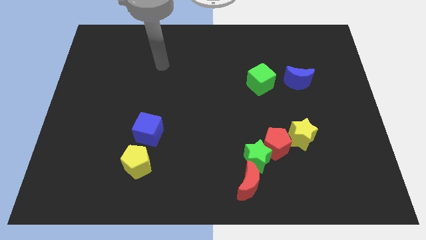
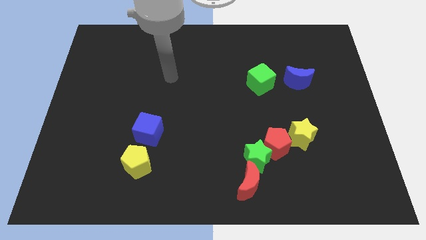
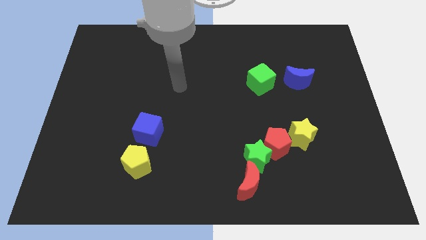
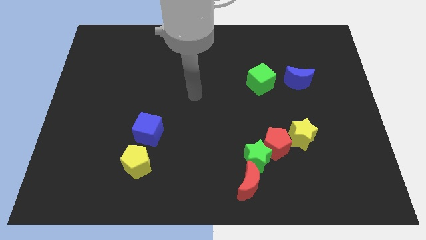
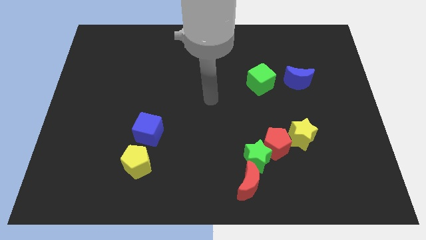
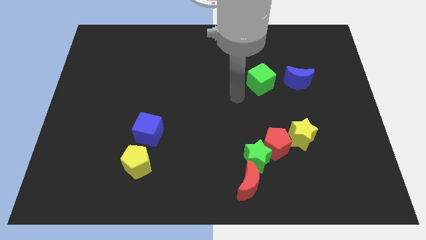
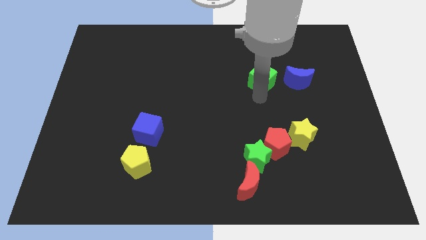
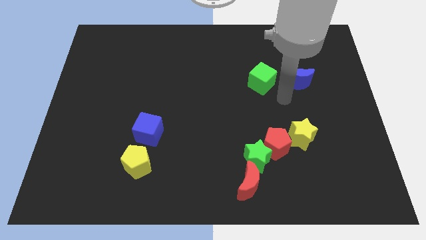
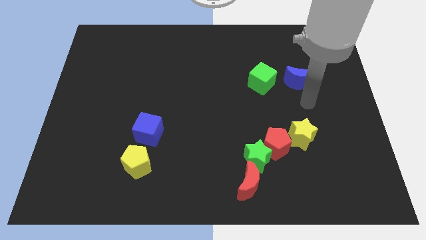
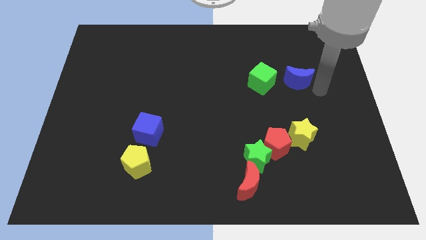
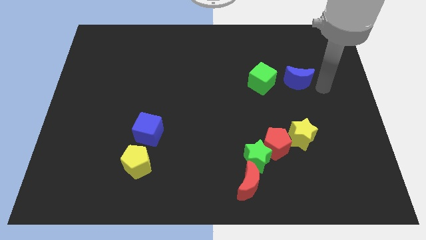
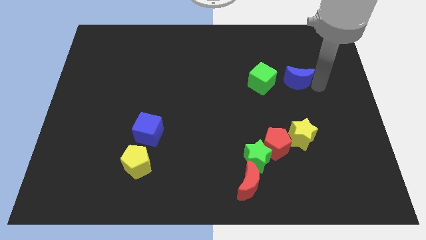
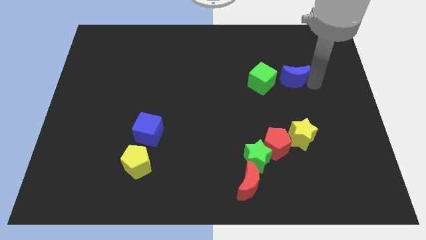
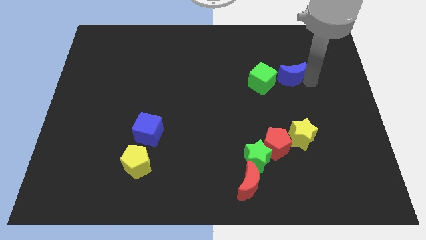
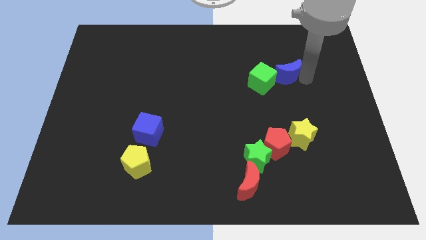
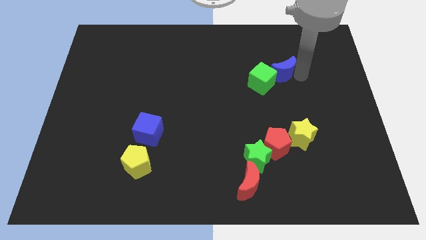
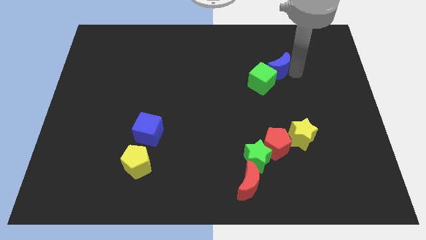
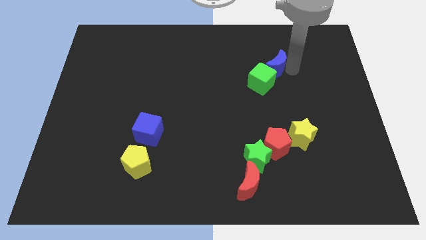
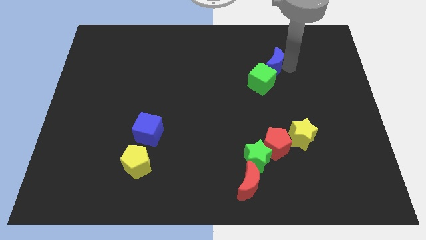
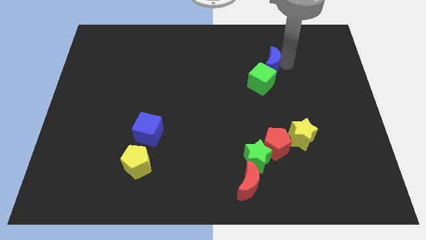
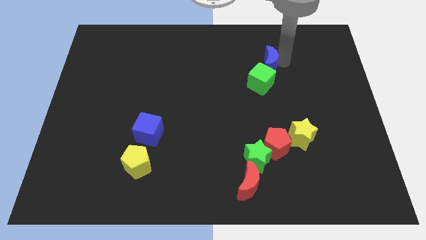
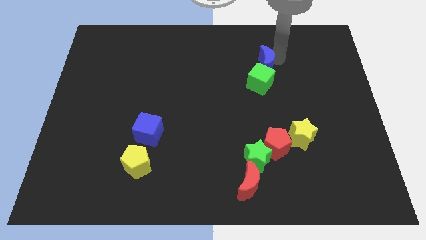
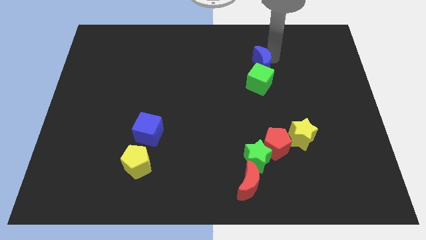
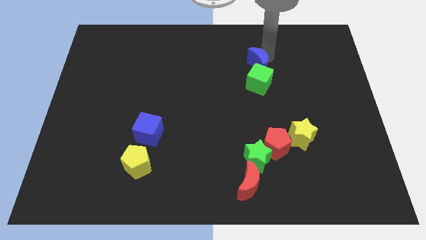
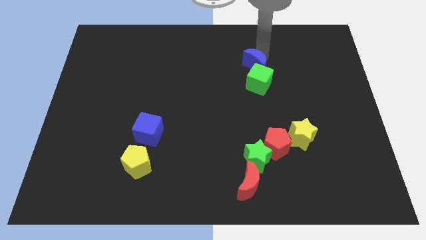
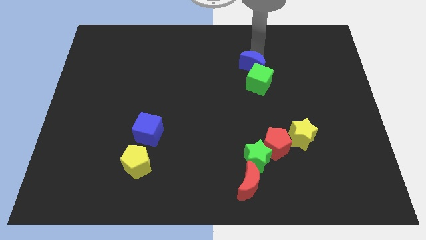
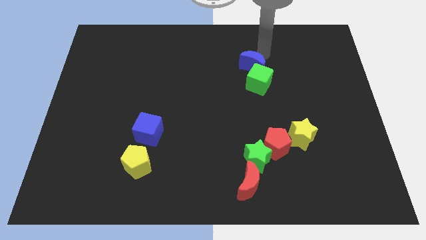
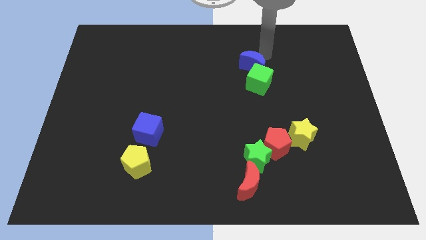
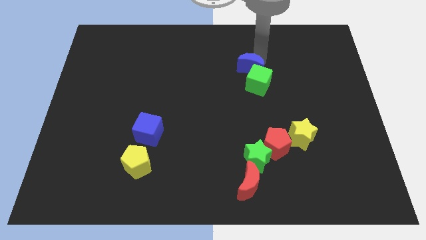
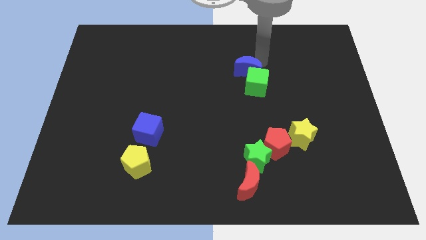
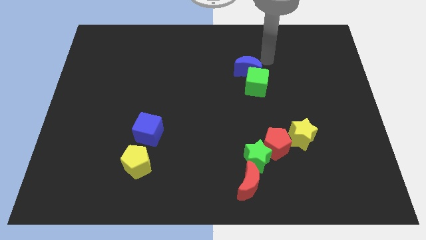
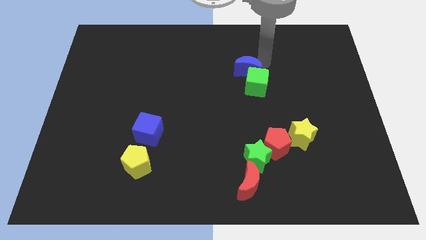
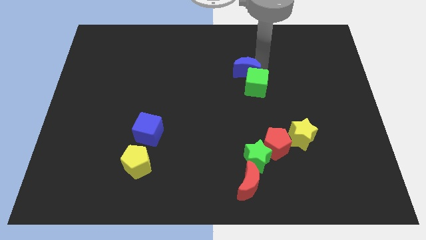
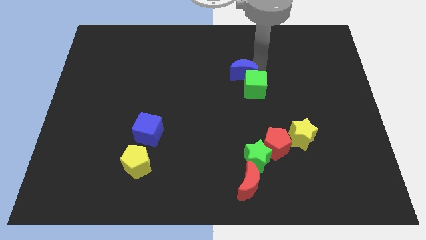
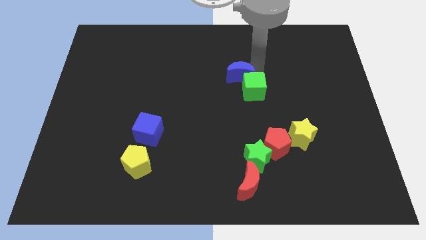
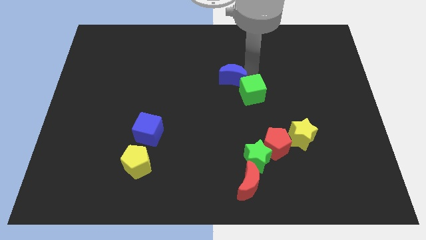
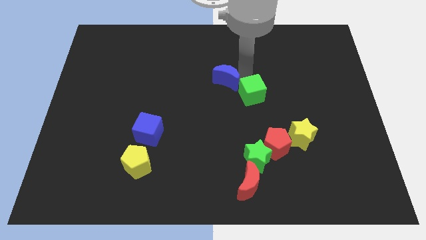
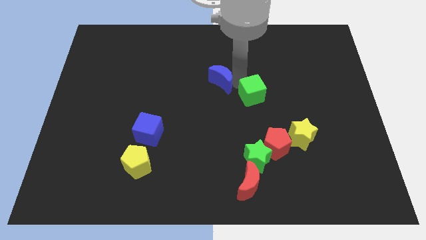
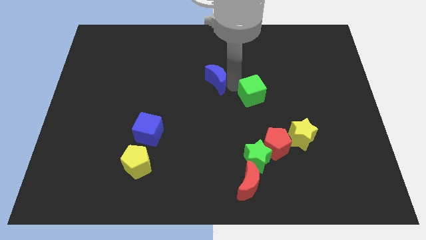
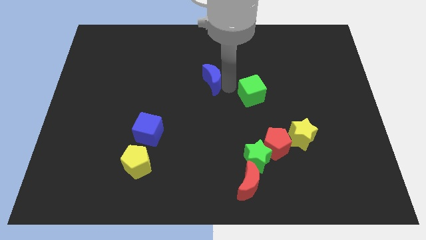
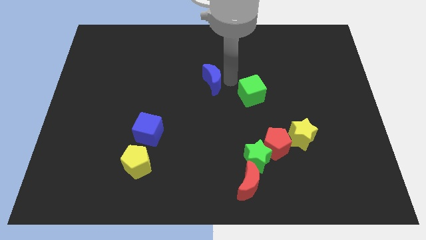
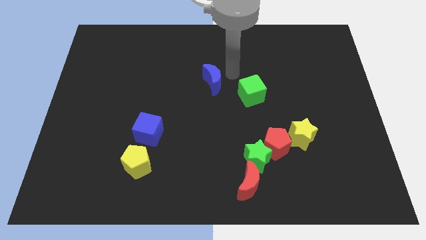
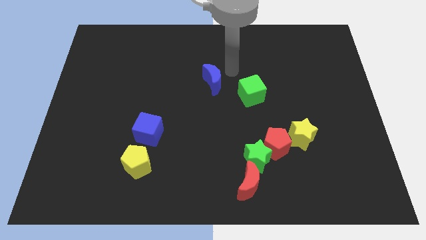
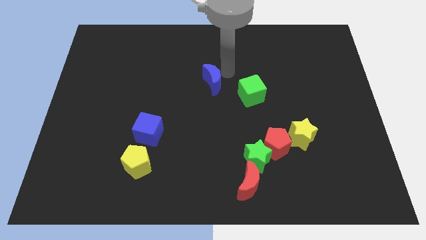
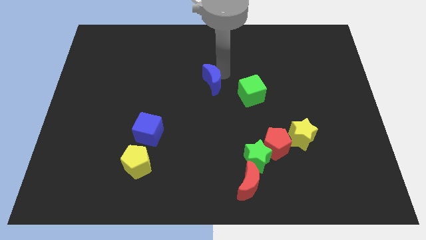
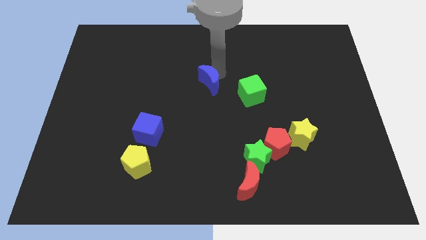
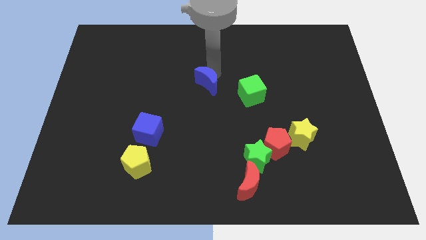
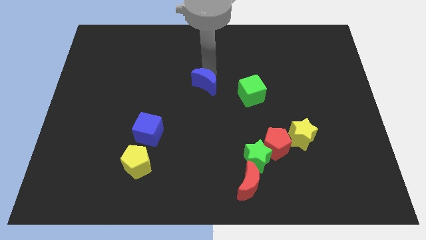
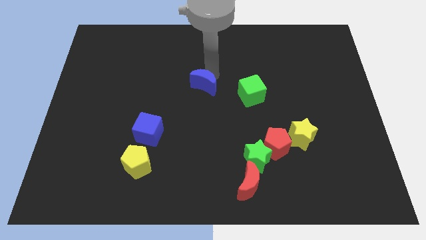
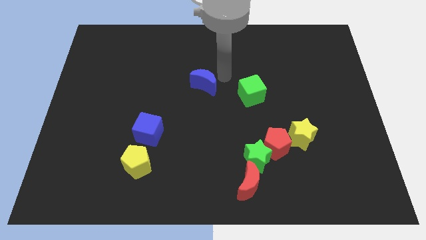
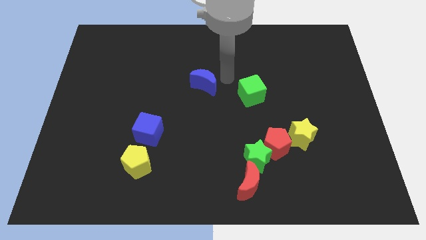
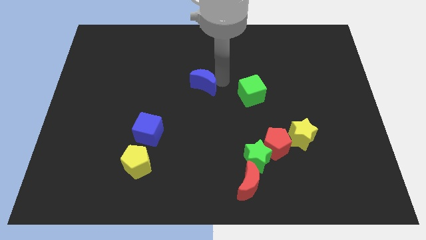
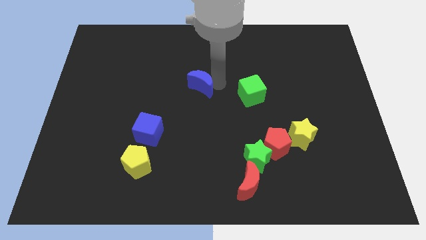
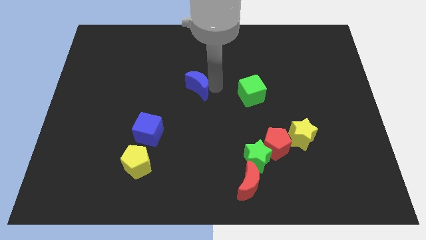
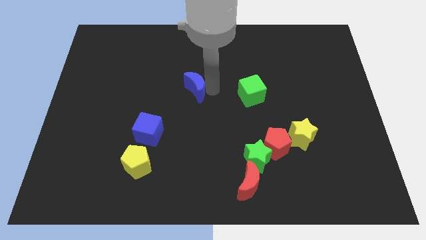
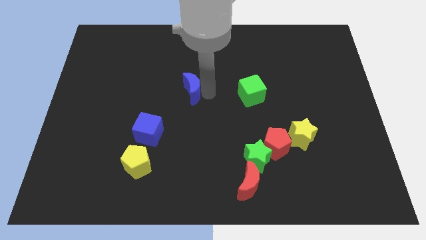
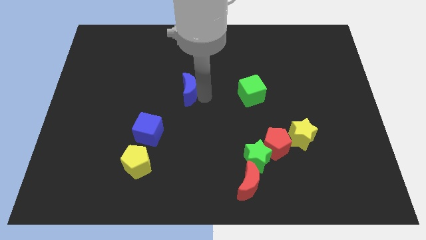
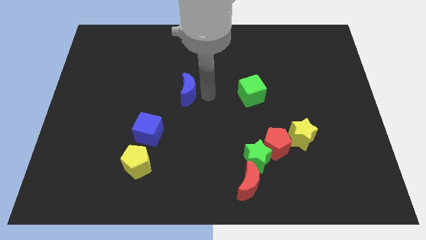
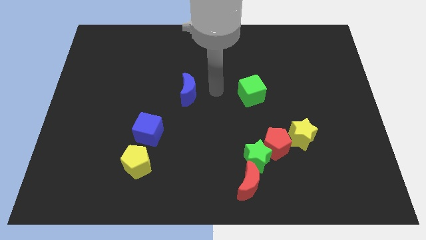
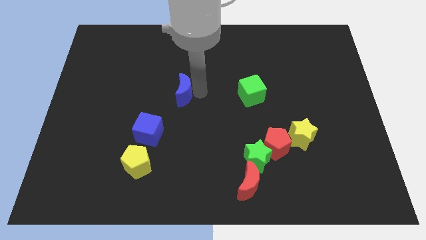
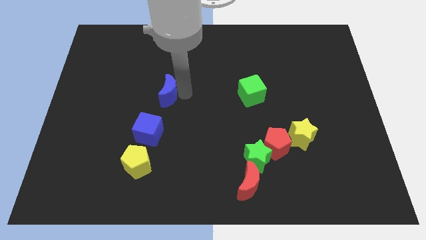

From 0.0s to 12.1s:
push the blue moon above the blue cube

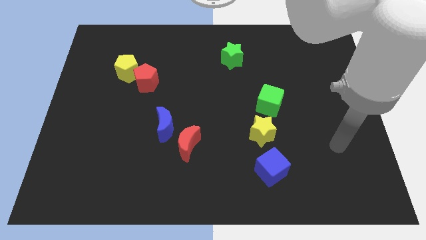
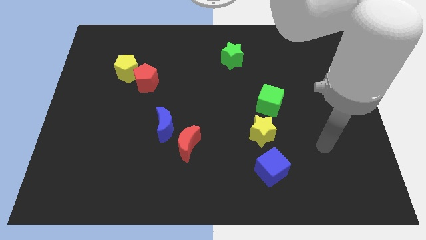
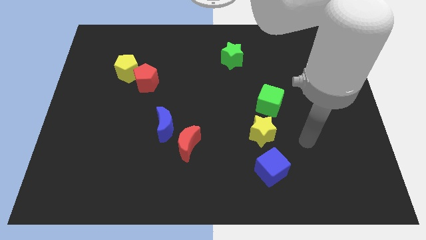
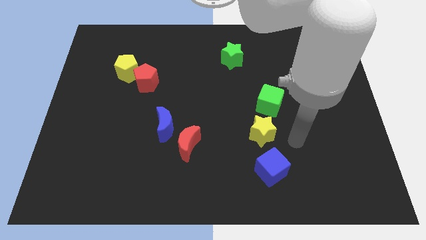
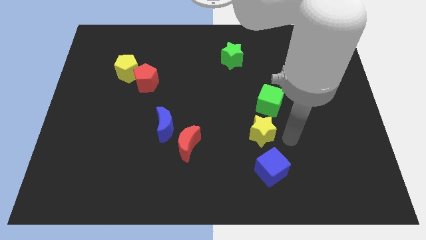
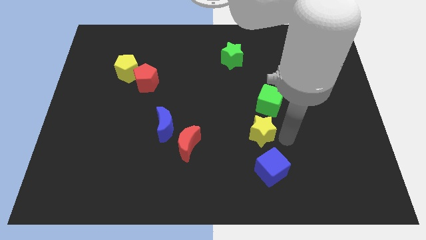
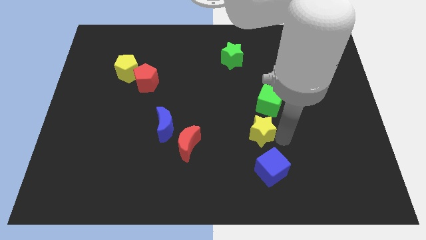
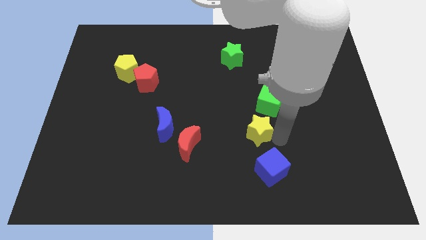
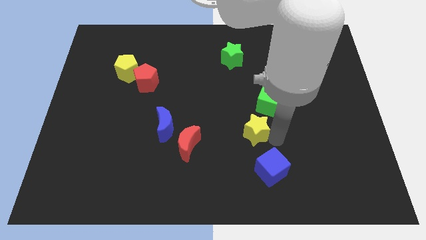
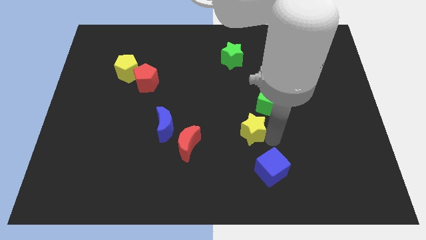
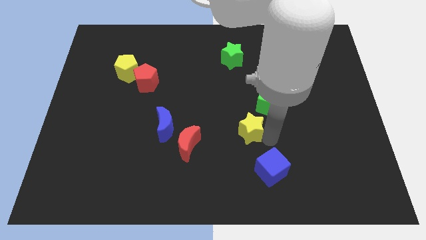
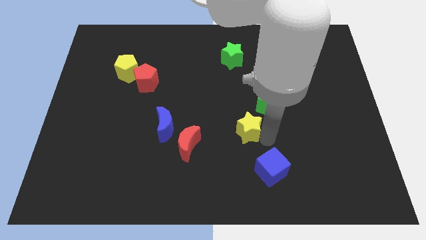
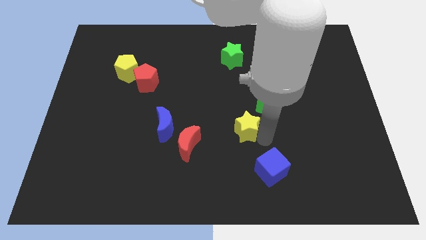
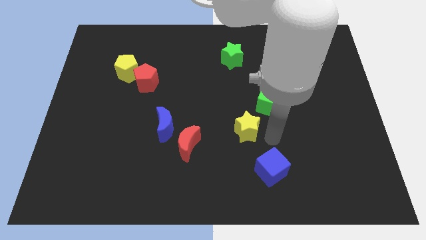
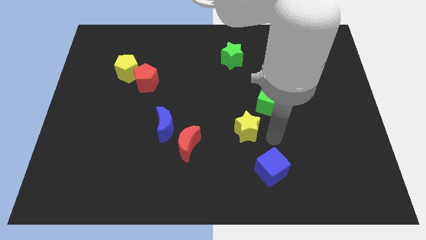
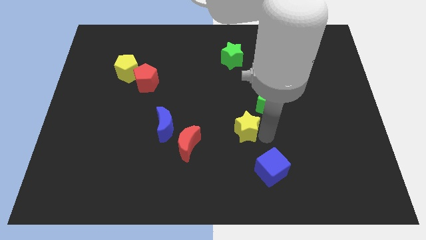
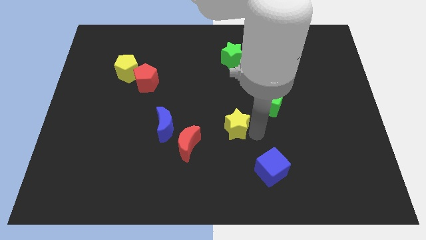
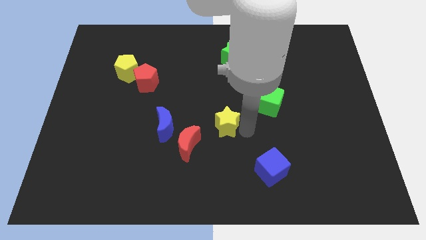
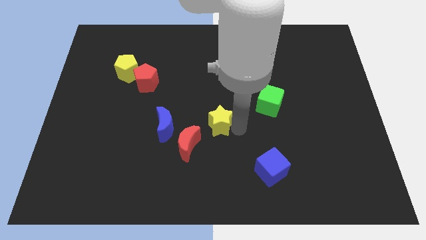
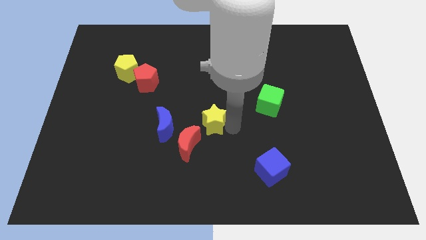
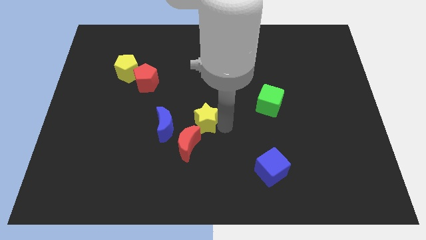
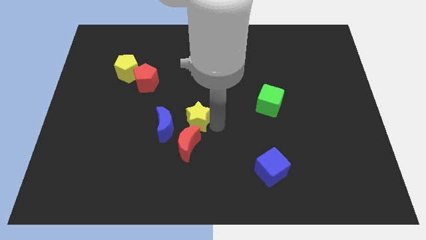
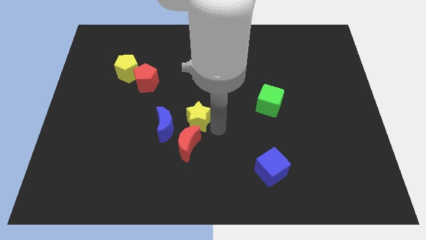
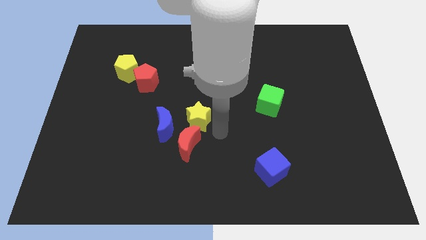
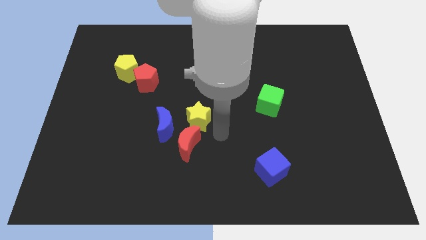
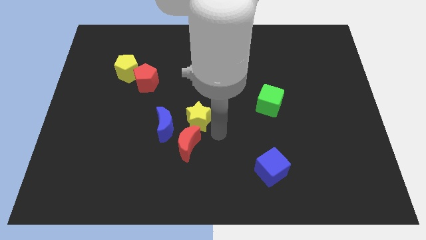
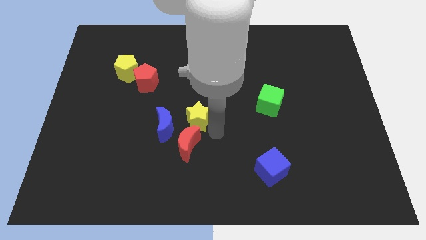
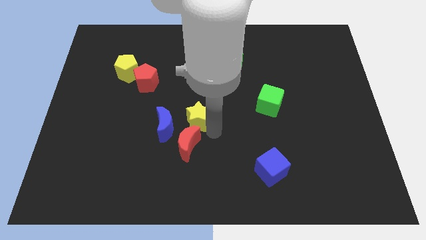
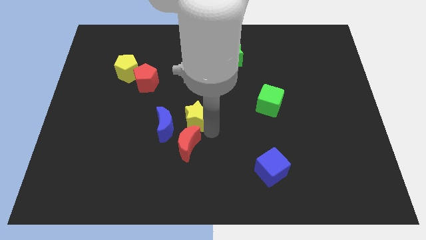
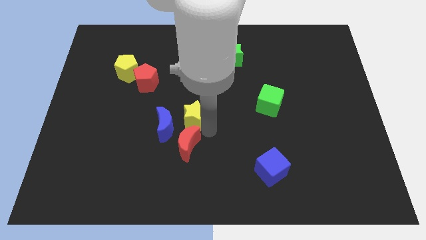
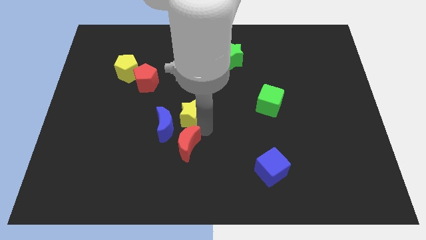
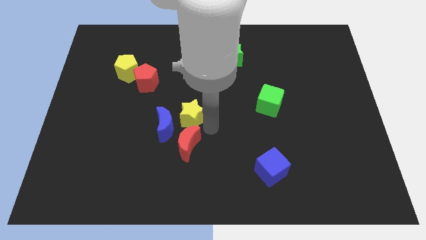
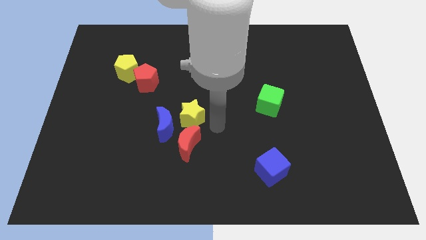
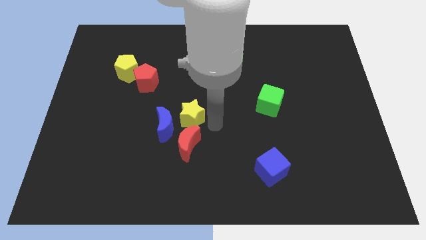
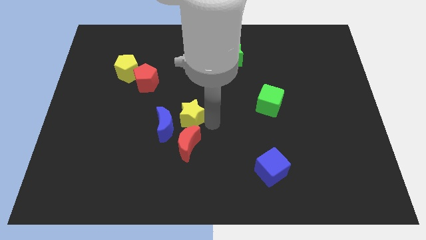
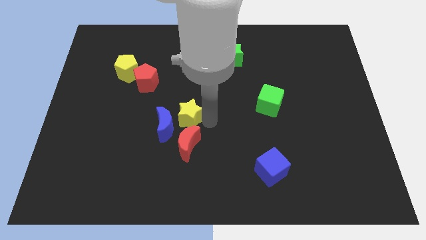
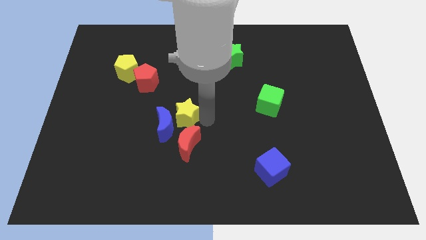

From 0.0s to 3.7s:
put the yellow star to the top left side of the red moon
